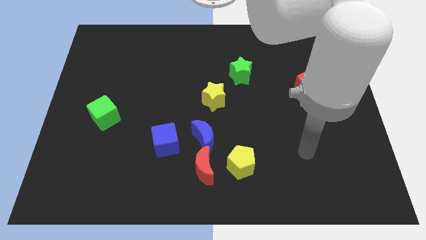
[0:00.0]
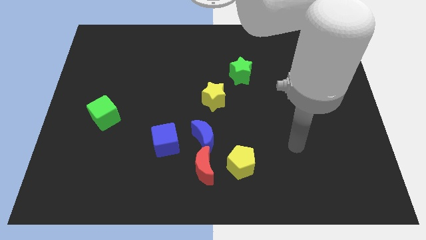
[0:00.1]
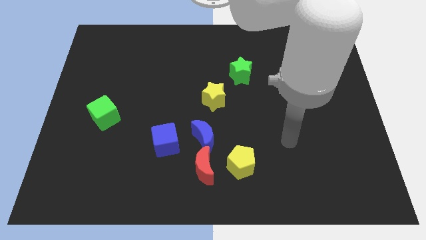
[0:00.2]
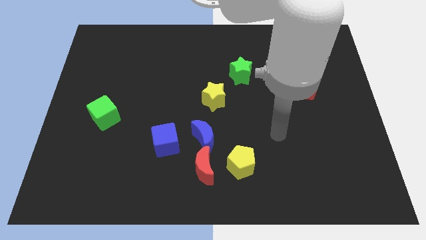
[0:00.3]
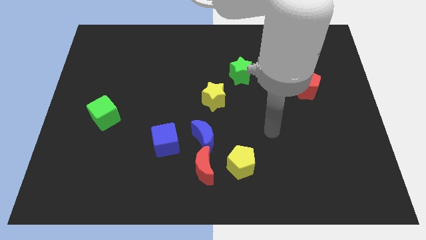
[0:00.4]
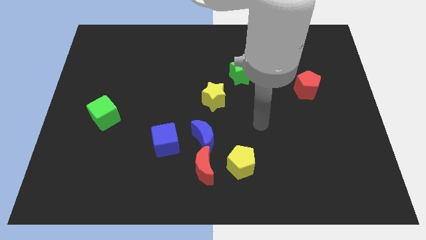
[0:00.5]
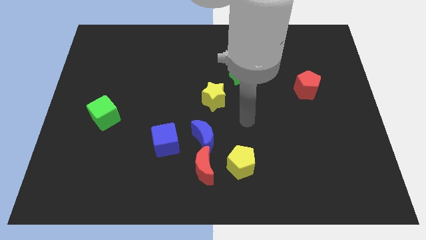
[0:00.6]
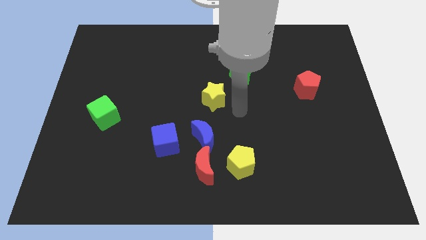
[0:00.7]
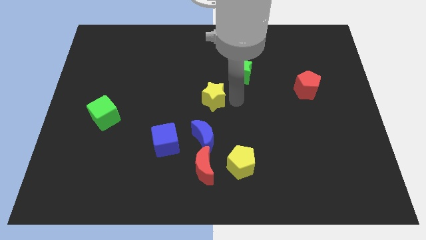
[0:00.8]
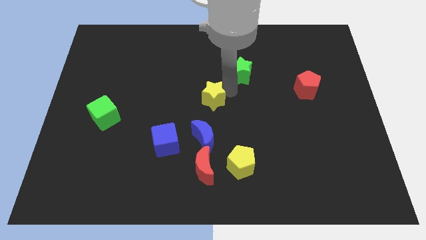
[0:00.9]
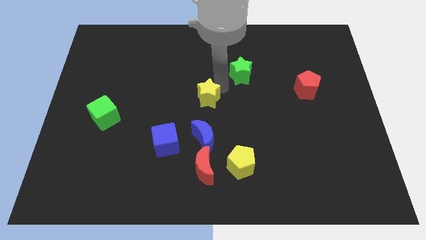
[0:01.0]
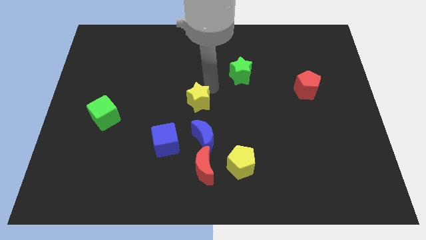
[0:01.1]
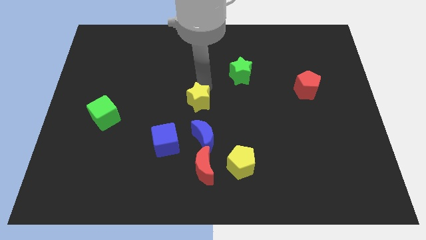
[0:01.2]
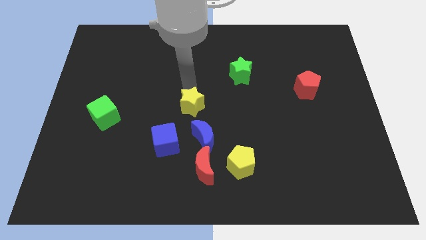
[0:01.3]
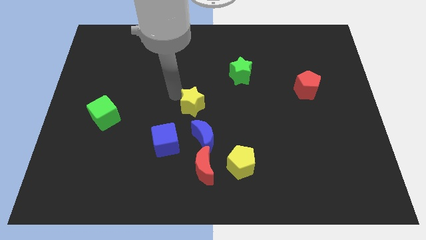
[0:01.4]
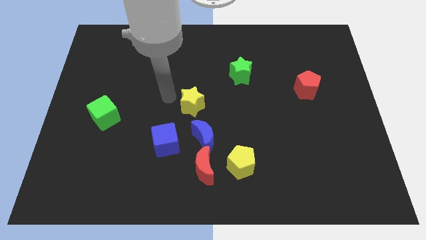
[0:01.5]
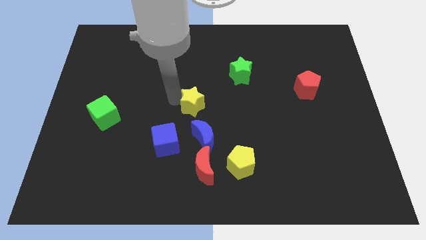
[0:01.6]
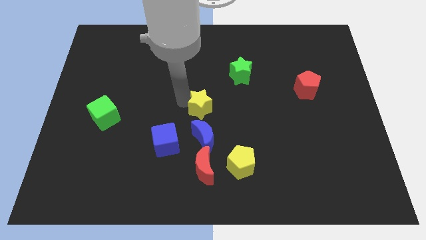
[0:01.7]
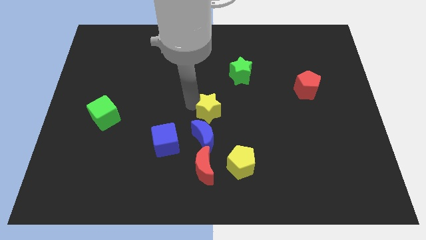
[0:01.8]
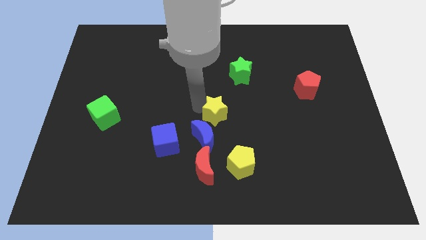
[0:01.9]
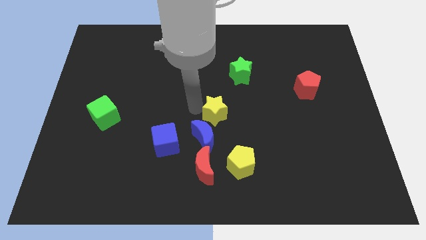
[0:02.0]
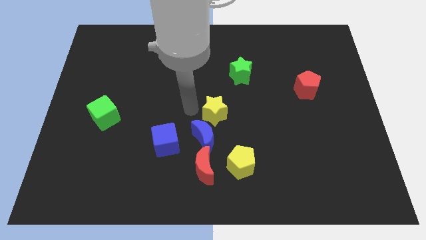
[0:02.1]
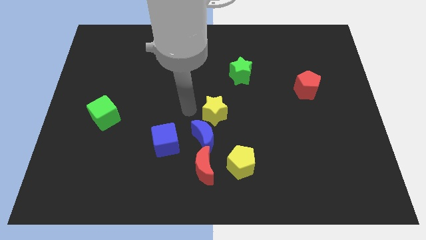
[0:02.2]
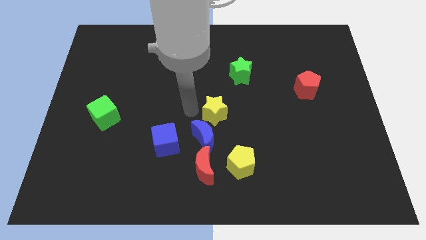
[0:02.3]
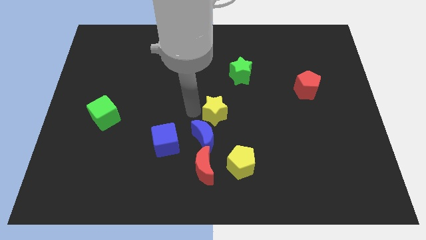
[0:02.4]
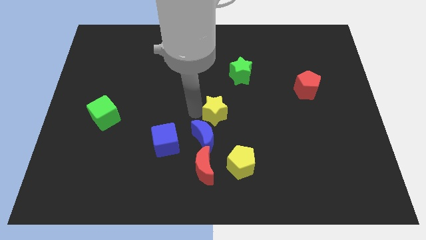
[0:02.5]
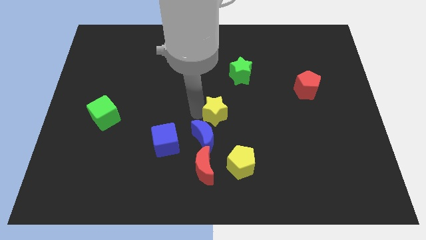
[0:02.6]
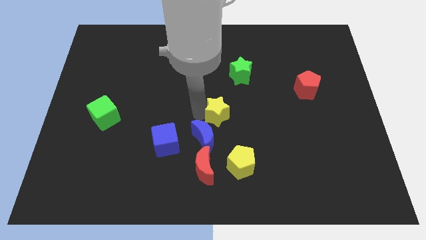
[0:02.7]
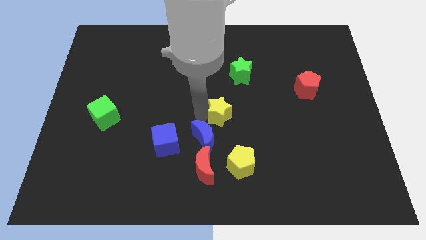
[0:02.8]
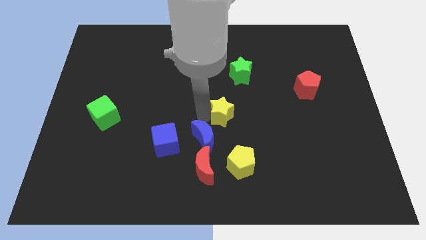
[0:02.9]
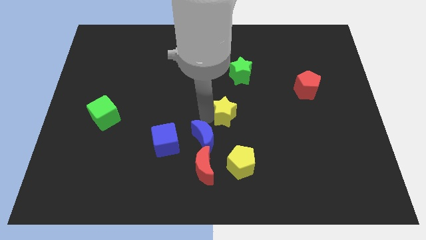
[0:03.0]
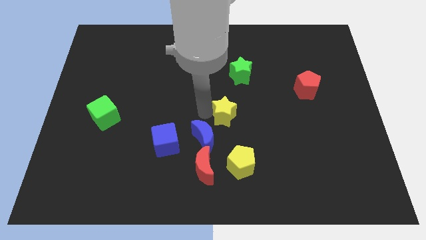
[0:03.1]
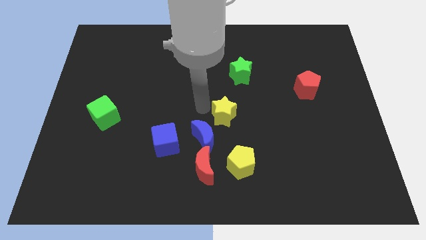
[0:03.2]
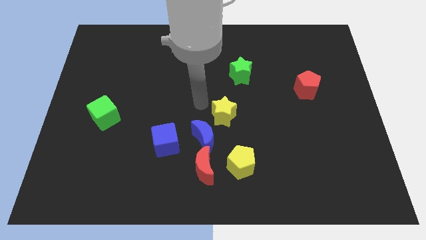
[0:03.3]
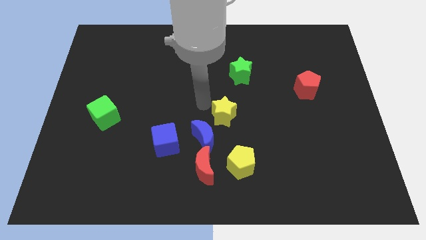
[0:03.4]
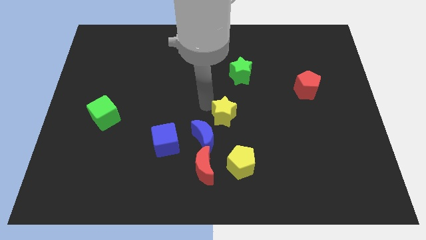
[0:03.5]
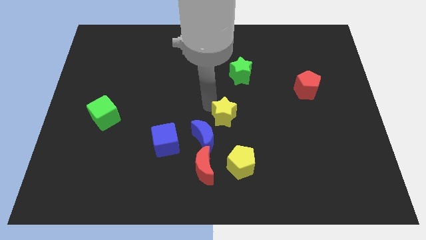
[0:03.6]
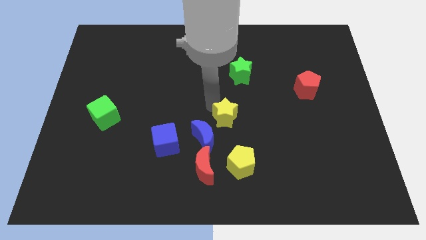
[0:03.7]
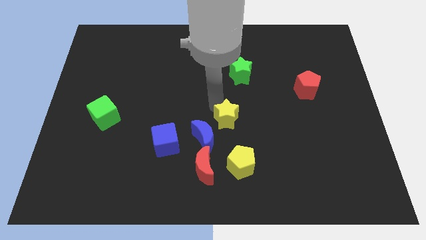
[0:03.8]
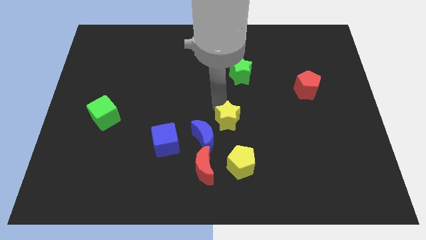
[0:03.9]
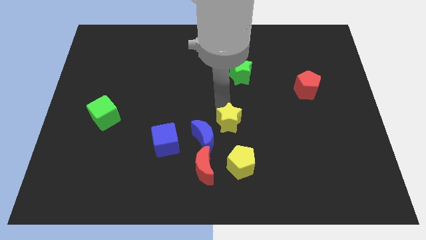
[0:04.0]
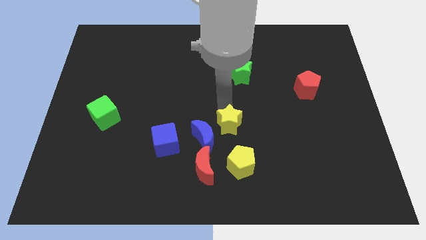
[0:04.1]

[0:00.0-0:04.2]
slide the yellow star downwards and to the right a little bit

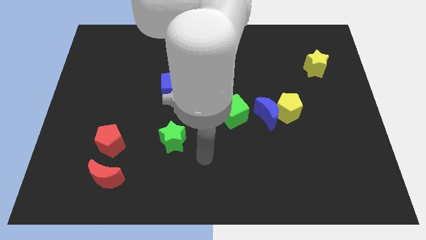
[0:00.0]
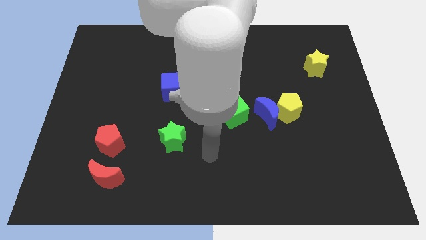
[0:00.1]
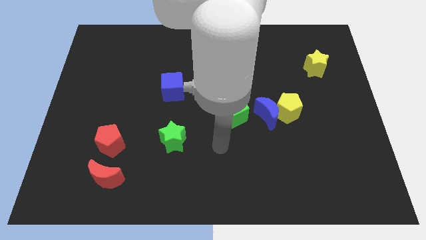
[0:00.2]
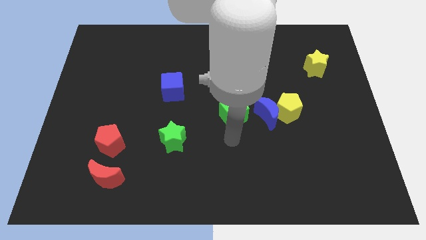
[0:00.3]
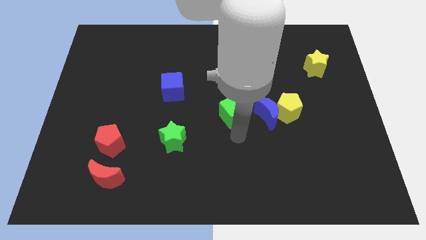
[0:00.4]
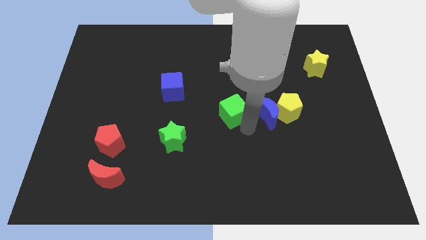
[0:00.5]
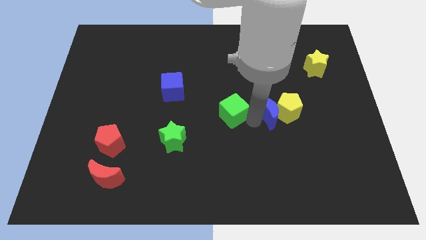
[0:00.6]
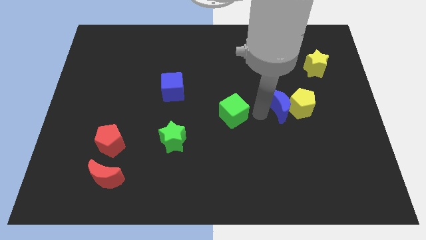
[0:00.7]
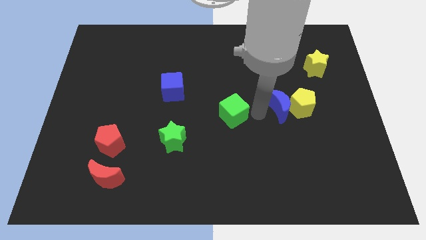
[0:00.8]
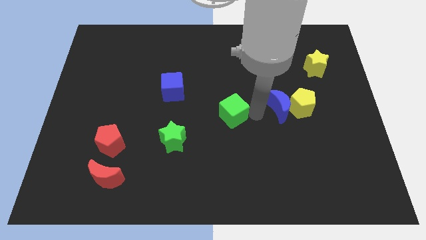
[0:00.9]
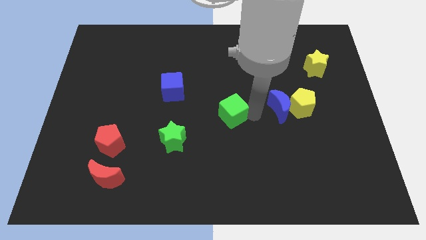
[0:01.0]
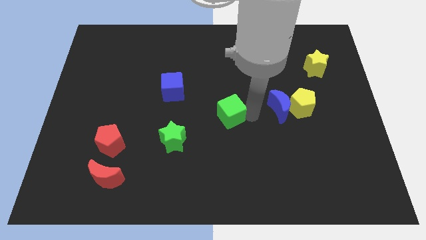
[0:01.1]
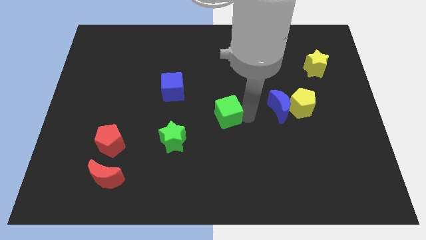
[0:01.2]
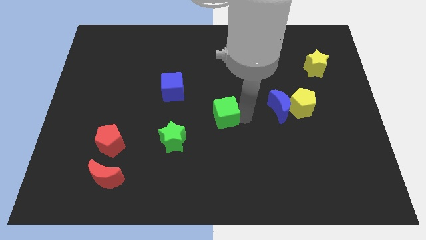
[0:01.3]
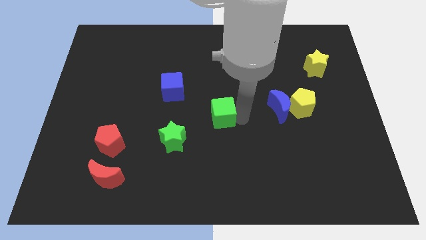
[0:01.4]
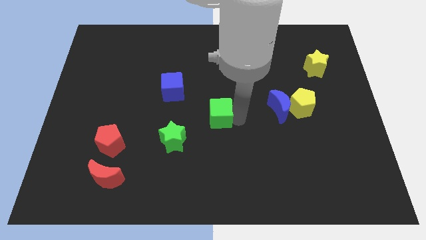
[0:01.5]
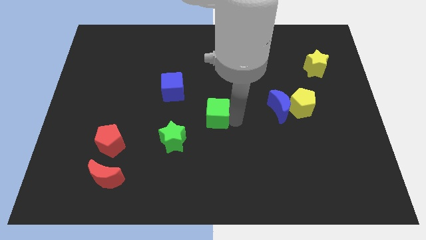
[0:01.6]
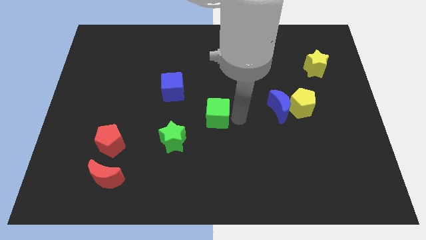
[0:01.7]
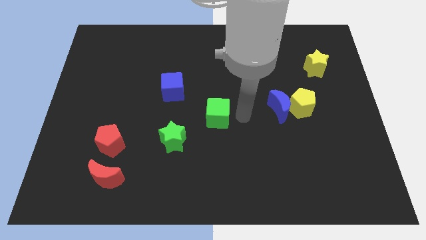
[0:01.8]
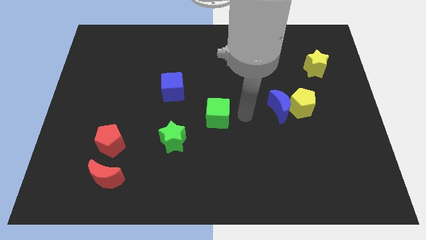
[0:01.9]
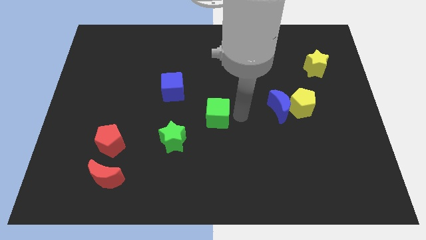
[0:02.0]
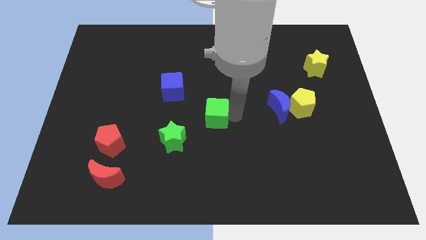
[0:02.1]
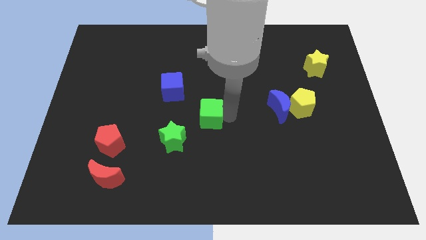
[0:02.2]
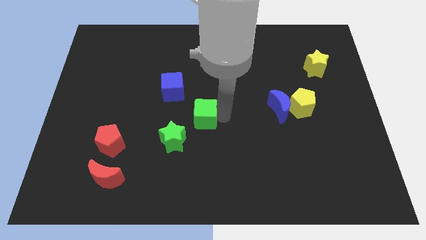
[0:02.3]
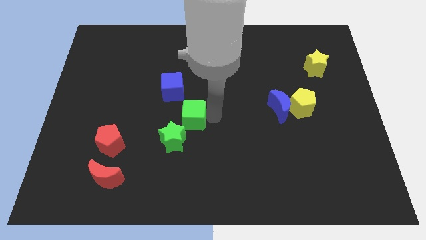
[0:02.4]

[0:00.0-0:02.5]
slightly move the green cube left

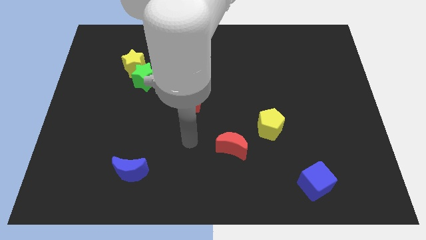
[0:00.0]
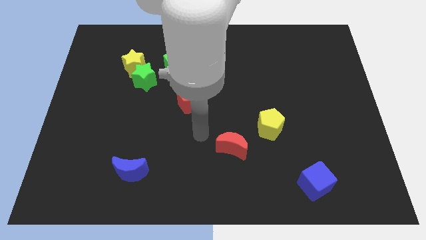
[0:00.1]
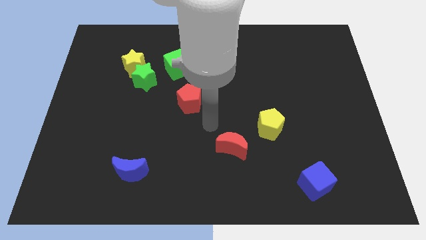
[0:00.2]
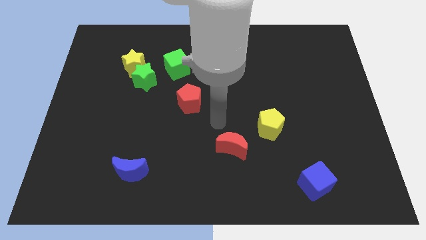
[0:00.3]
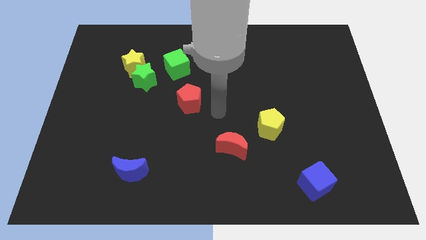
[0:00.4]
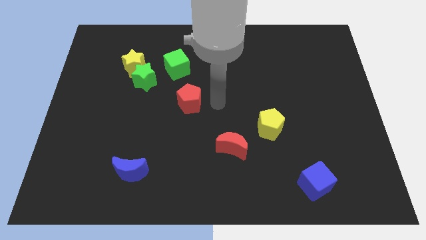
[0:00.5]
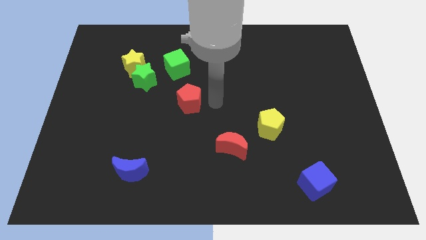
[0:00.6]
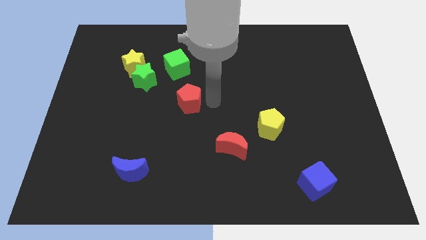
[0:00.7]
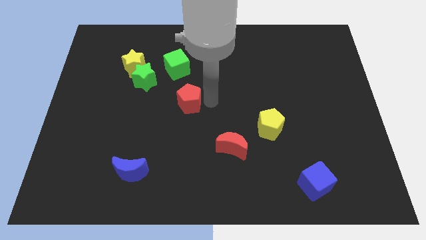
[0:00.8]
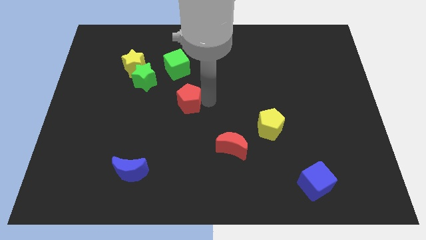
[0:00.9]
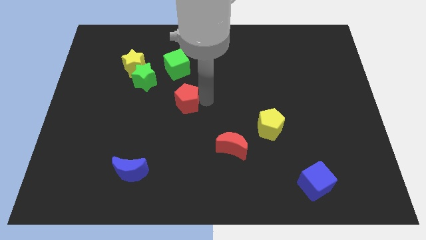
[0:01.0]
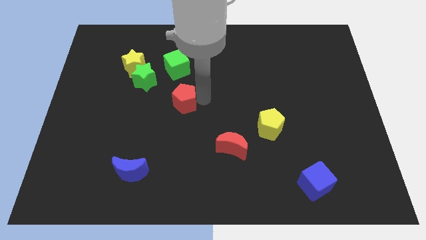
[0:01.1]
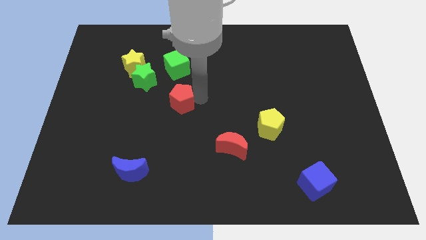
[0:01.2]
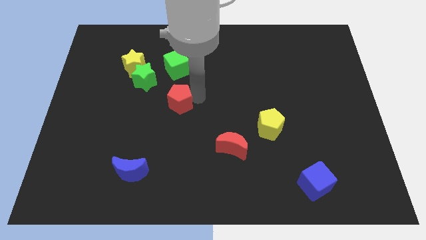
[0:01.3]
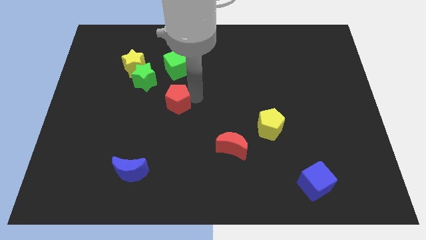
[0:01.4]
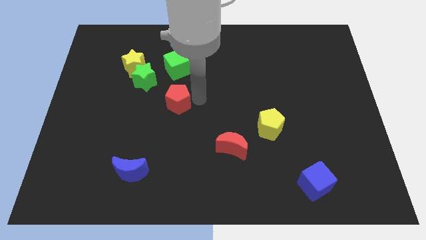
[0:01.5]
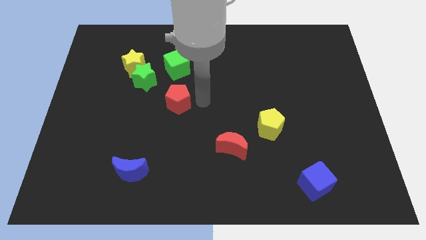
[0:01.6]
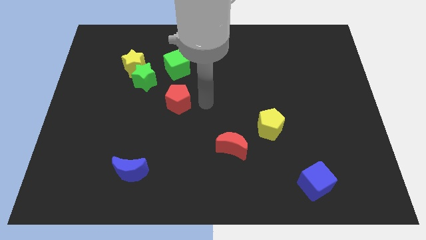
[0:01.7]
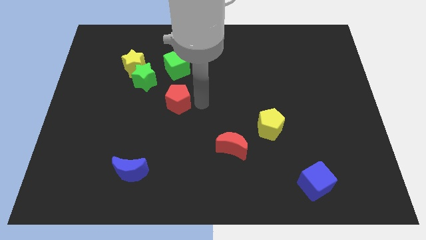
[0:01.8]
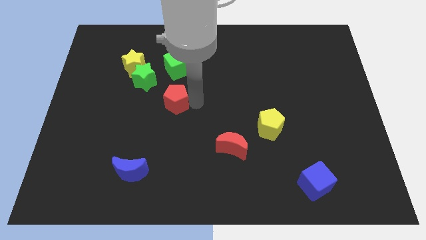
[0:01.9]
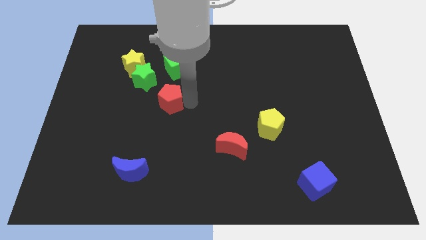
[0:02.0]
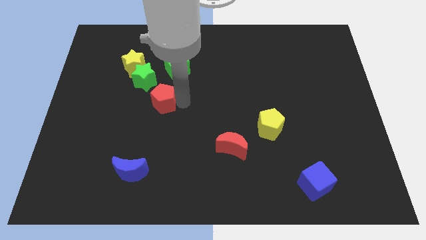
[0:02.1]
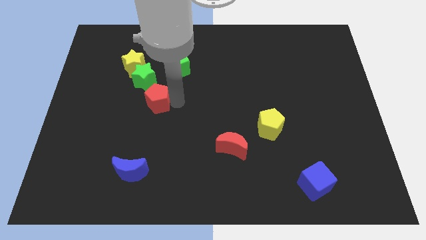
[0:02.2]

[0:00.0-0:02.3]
slide the red pentagon left somewhat
